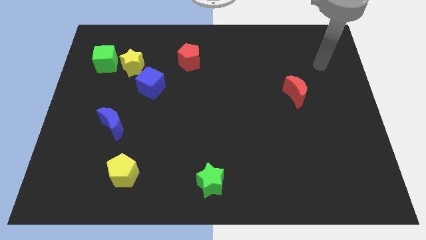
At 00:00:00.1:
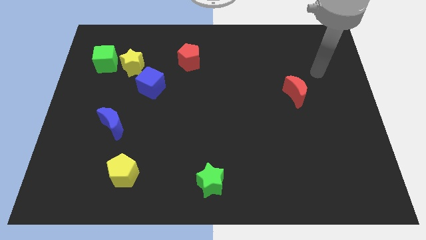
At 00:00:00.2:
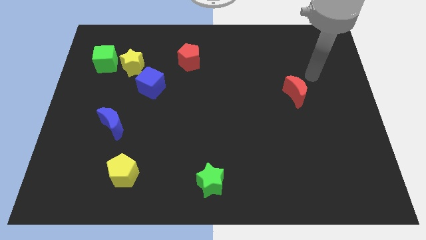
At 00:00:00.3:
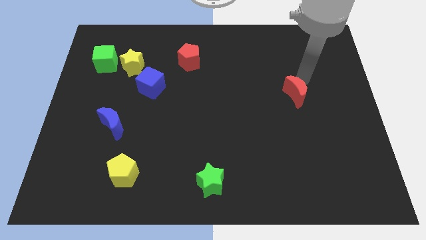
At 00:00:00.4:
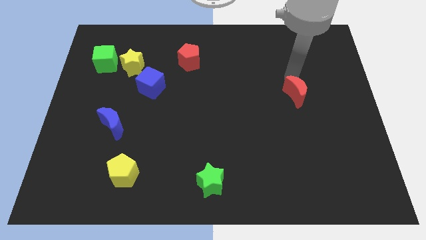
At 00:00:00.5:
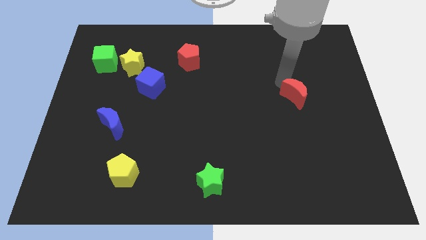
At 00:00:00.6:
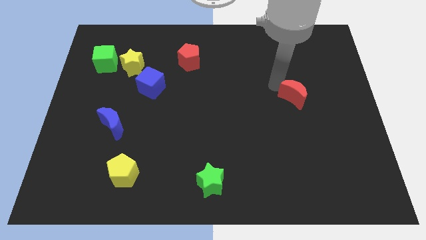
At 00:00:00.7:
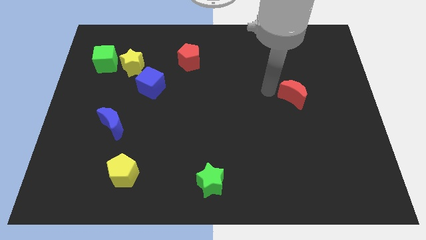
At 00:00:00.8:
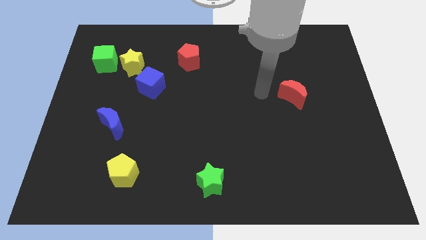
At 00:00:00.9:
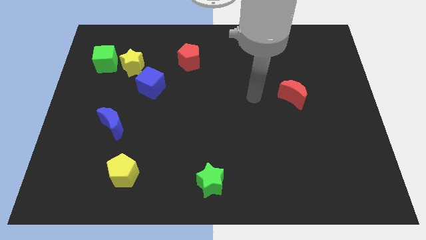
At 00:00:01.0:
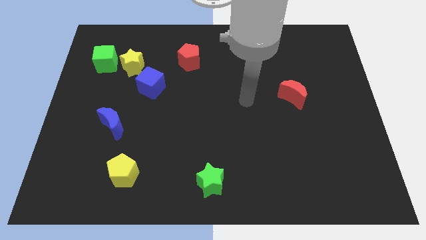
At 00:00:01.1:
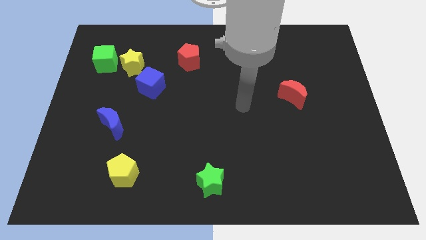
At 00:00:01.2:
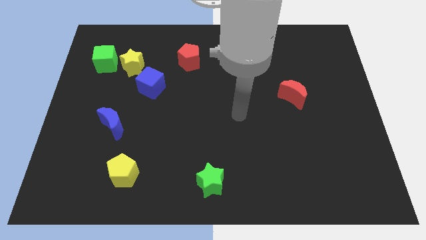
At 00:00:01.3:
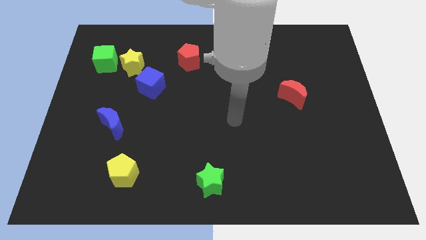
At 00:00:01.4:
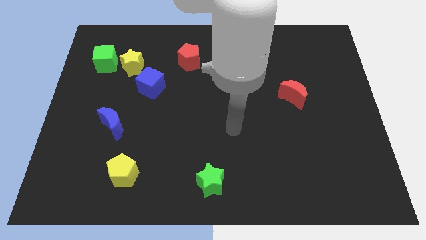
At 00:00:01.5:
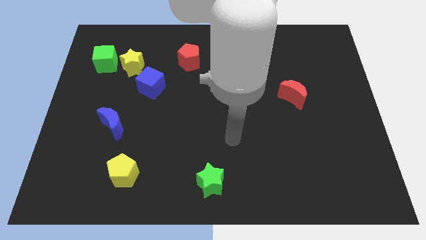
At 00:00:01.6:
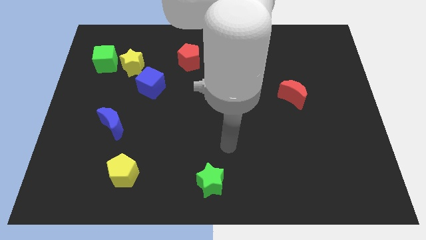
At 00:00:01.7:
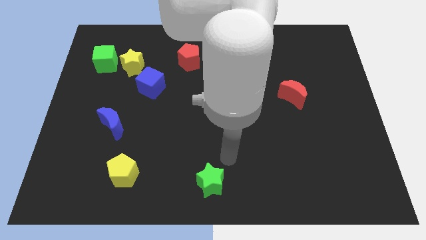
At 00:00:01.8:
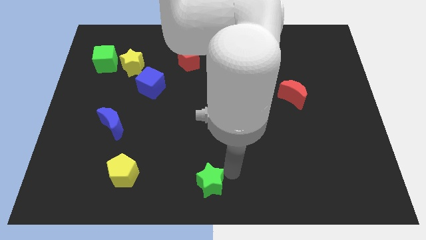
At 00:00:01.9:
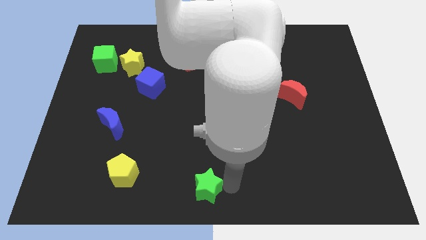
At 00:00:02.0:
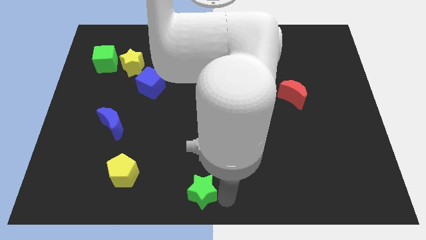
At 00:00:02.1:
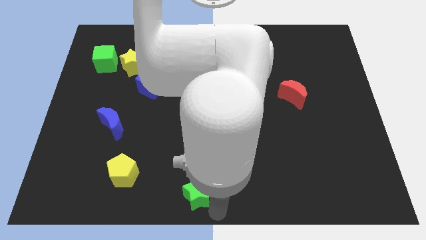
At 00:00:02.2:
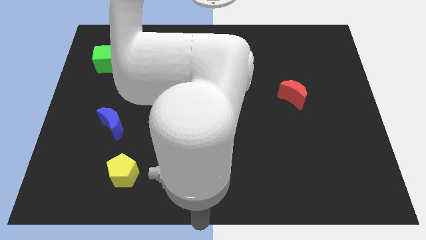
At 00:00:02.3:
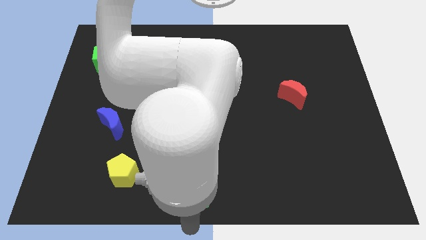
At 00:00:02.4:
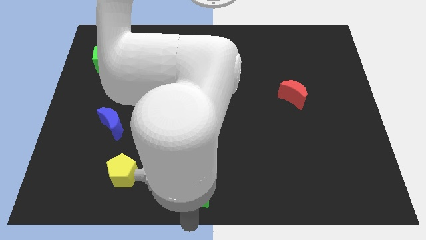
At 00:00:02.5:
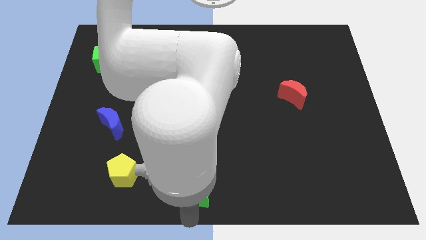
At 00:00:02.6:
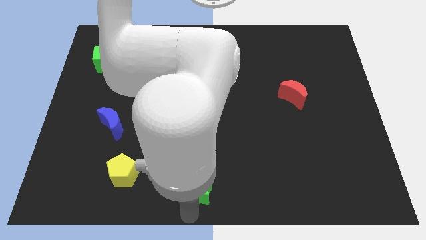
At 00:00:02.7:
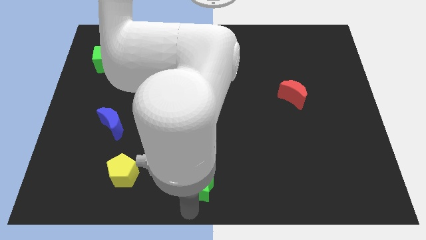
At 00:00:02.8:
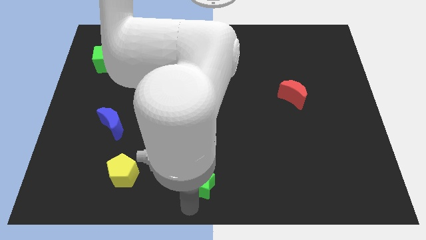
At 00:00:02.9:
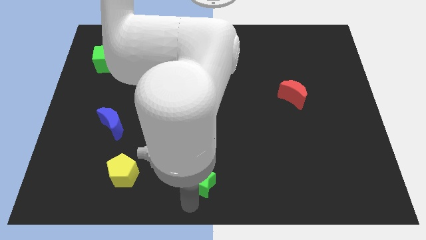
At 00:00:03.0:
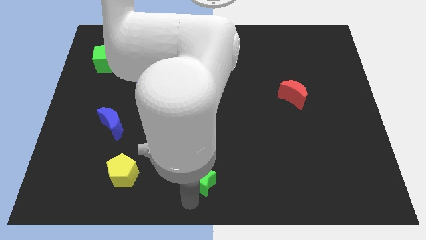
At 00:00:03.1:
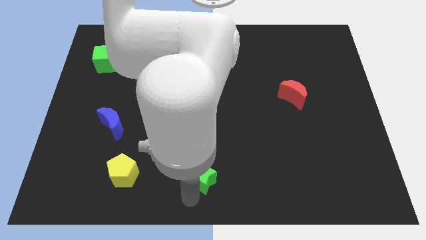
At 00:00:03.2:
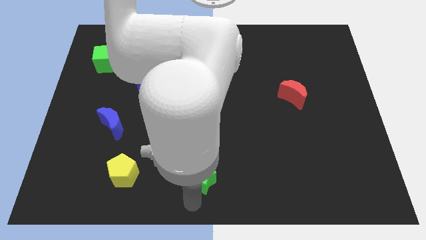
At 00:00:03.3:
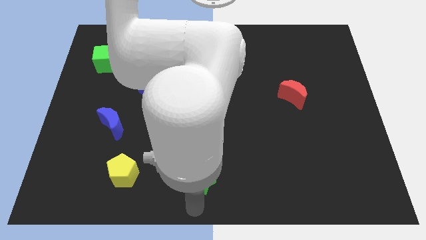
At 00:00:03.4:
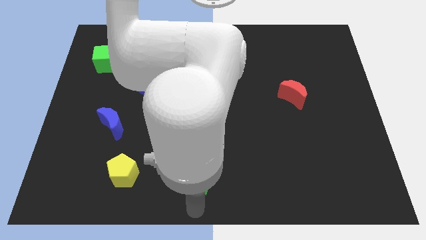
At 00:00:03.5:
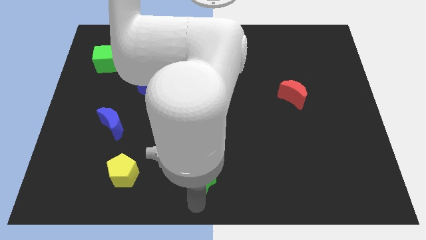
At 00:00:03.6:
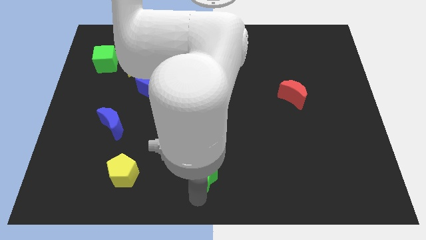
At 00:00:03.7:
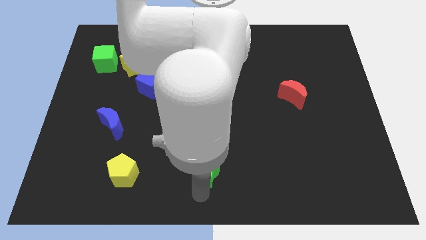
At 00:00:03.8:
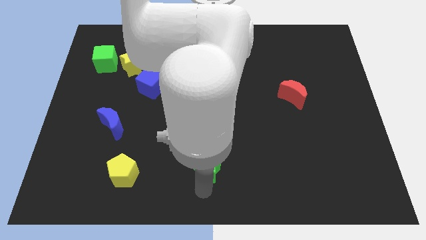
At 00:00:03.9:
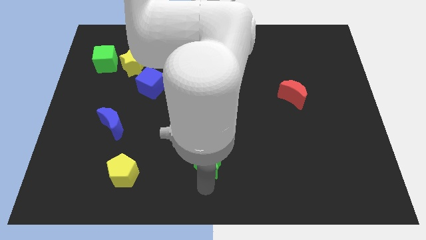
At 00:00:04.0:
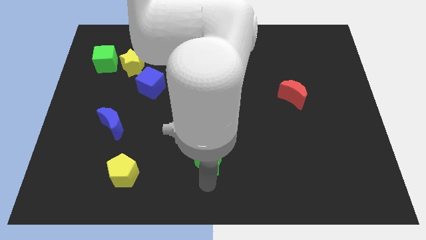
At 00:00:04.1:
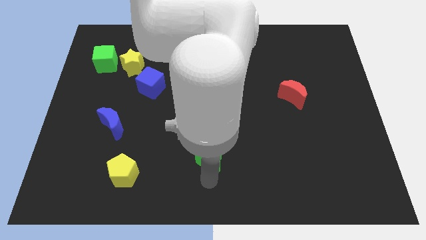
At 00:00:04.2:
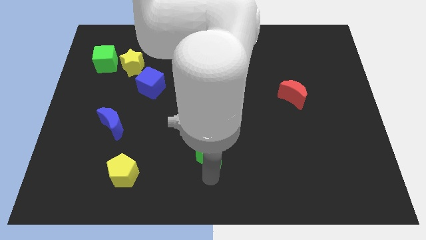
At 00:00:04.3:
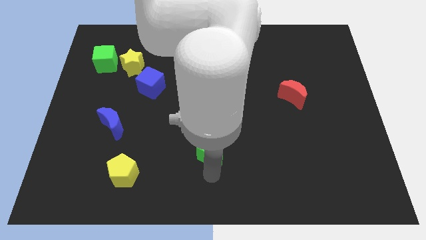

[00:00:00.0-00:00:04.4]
slide the green star a bit upwards

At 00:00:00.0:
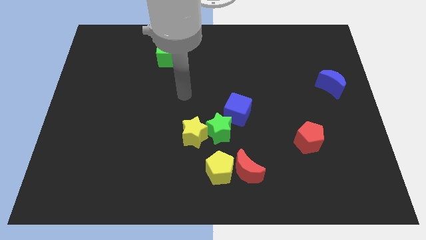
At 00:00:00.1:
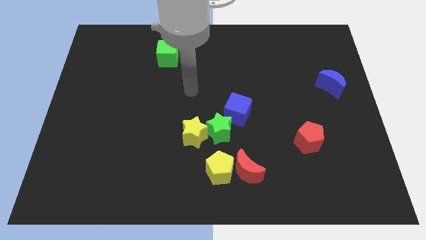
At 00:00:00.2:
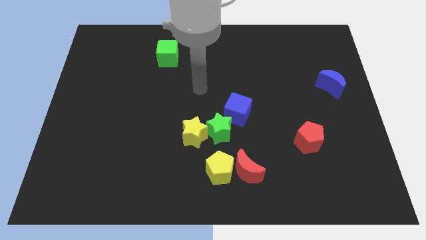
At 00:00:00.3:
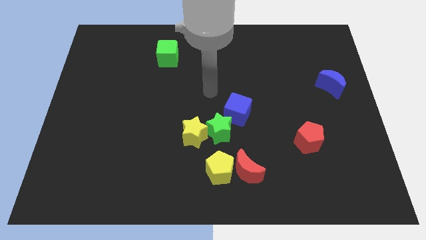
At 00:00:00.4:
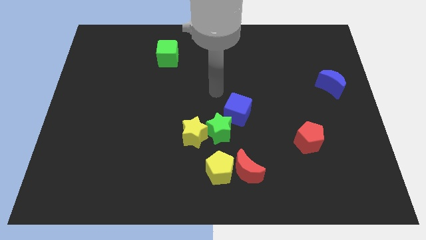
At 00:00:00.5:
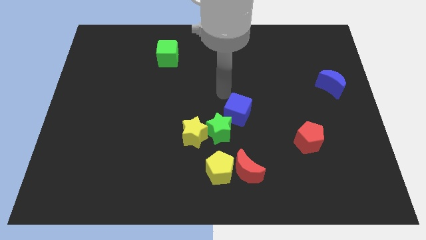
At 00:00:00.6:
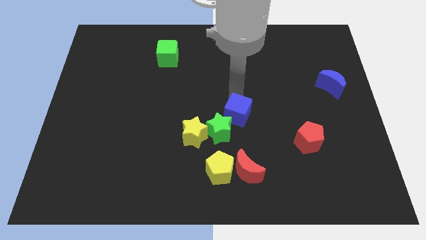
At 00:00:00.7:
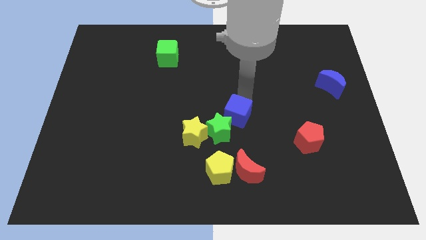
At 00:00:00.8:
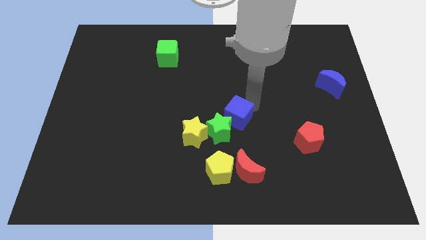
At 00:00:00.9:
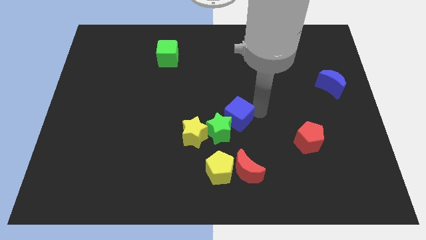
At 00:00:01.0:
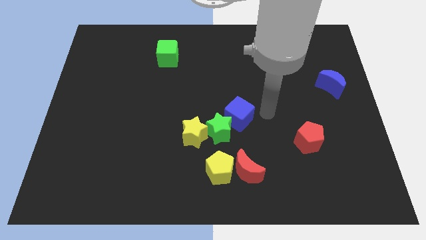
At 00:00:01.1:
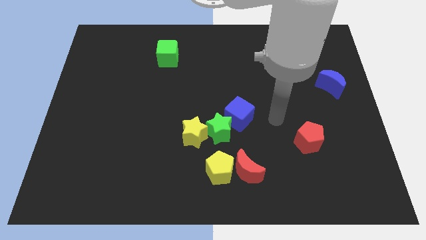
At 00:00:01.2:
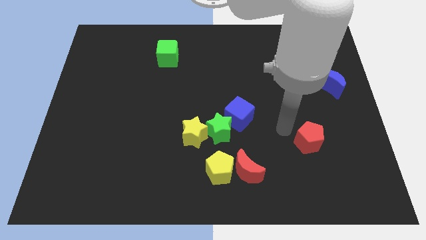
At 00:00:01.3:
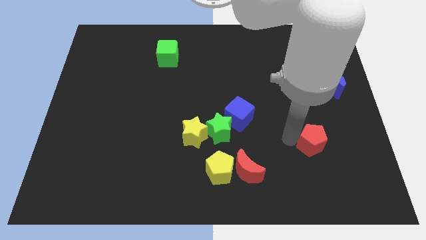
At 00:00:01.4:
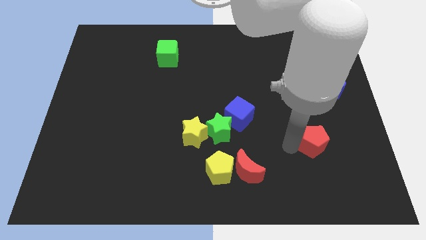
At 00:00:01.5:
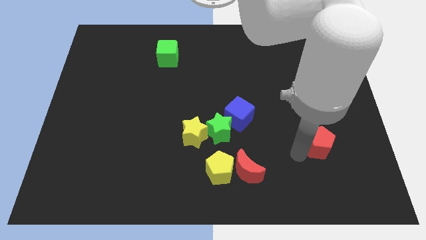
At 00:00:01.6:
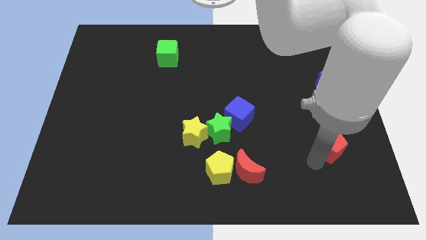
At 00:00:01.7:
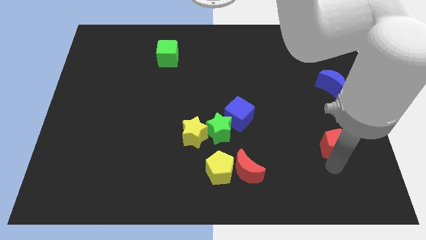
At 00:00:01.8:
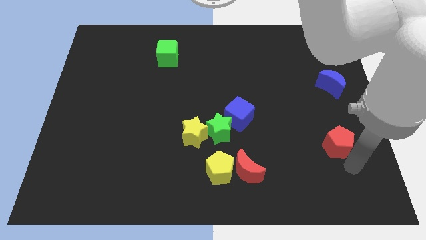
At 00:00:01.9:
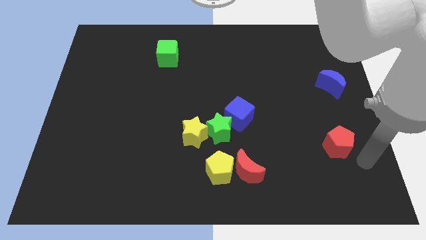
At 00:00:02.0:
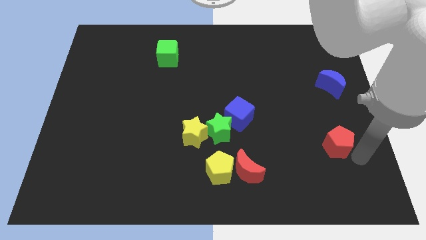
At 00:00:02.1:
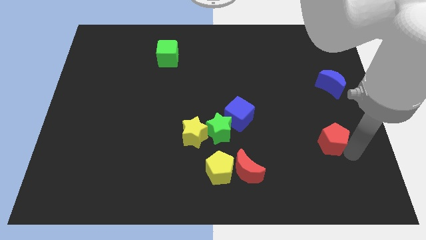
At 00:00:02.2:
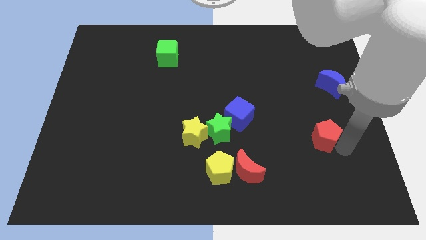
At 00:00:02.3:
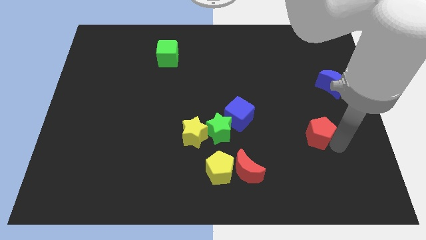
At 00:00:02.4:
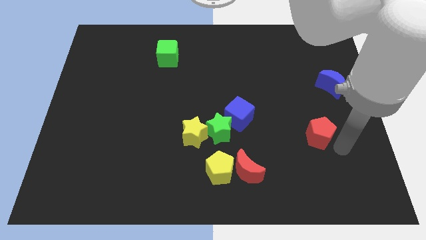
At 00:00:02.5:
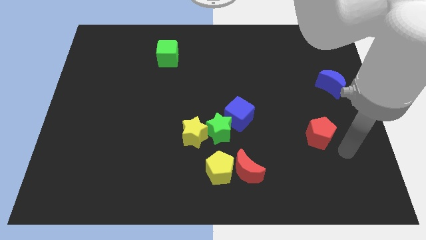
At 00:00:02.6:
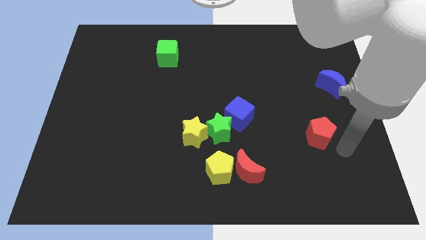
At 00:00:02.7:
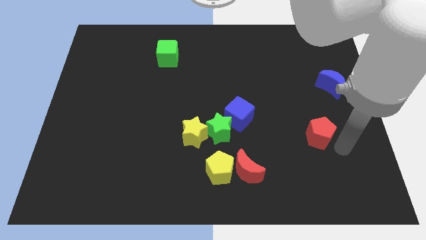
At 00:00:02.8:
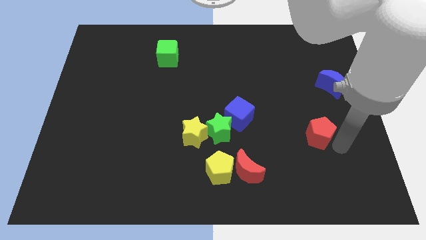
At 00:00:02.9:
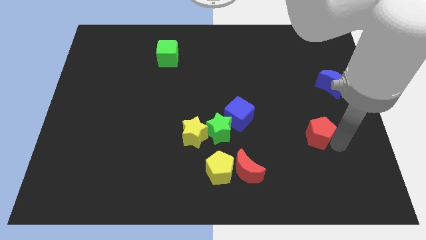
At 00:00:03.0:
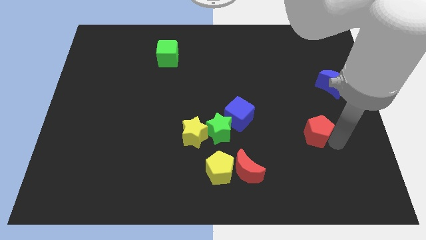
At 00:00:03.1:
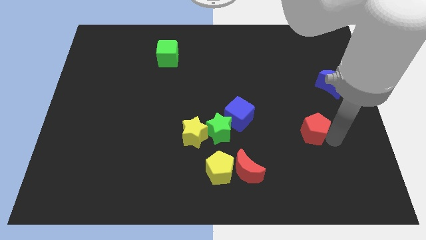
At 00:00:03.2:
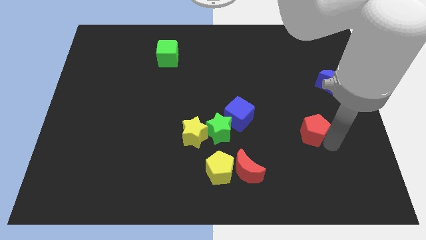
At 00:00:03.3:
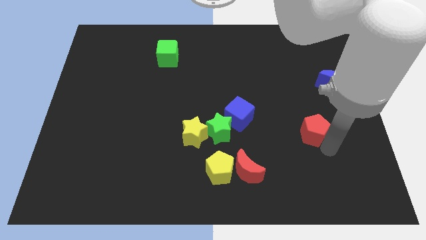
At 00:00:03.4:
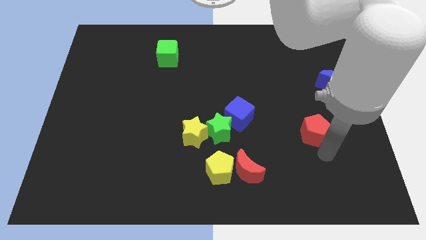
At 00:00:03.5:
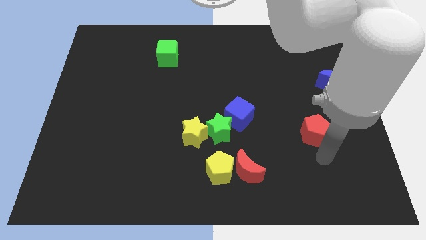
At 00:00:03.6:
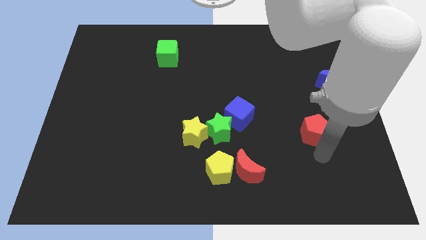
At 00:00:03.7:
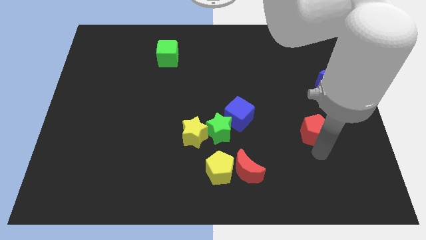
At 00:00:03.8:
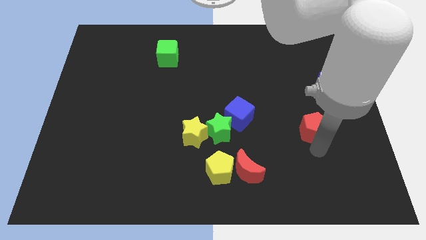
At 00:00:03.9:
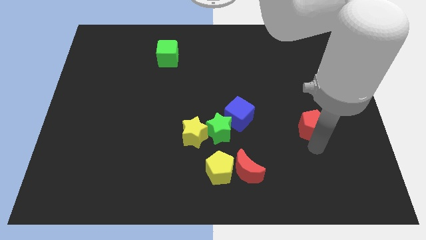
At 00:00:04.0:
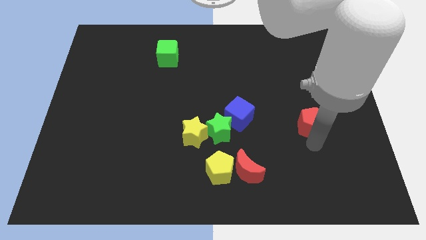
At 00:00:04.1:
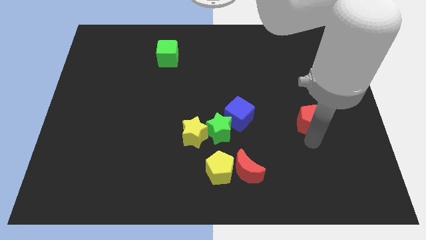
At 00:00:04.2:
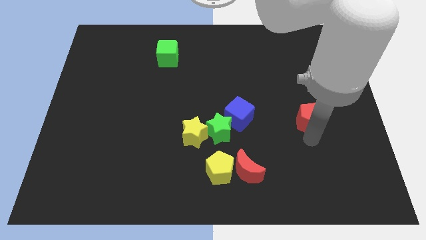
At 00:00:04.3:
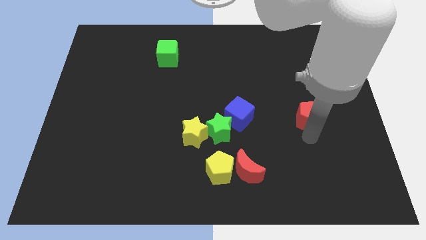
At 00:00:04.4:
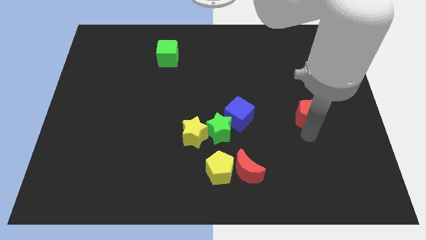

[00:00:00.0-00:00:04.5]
slightly slide the red pentagon upwards
